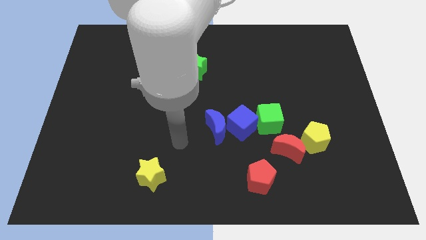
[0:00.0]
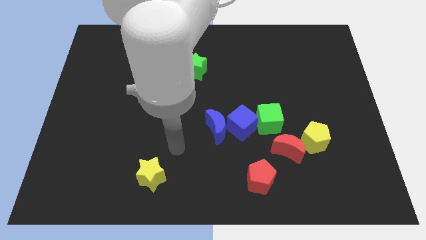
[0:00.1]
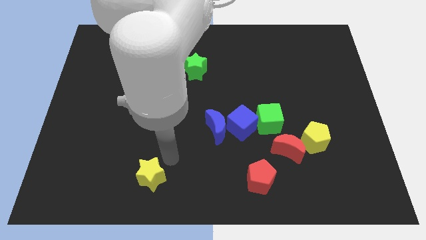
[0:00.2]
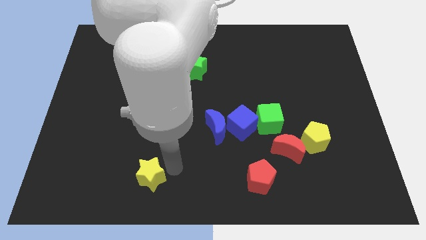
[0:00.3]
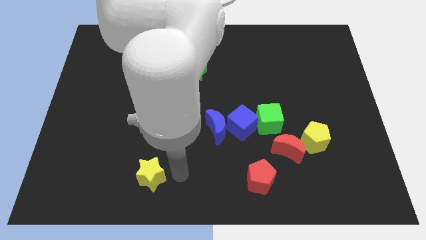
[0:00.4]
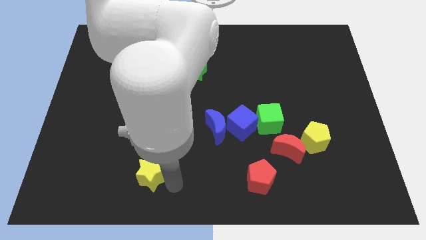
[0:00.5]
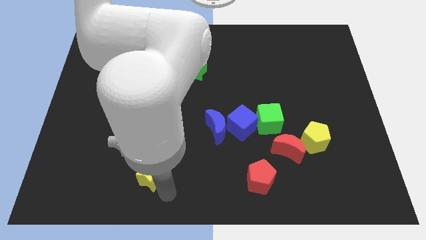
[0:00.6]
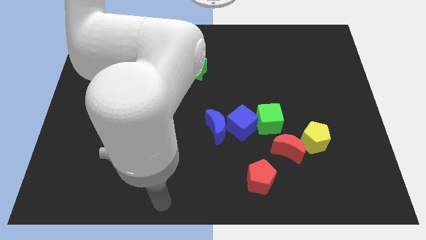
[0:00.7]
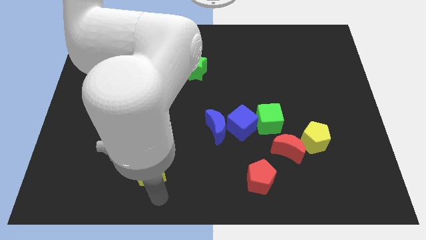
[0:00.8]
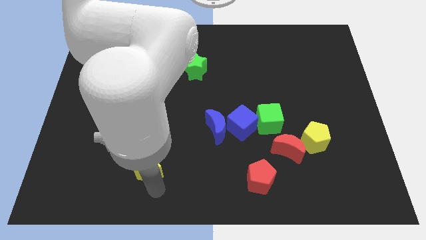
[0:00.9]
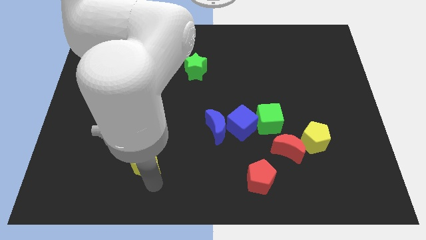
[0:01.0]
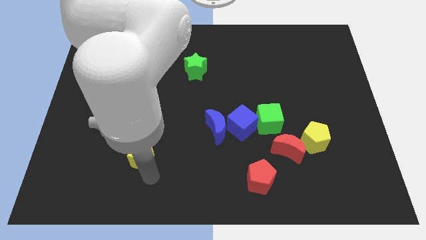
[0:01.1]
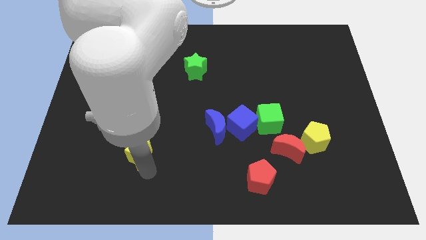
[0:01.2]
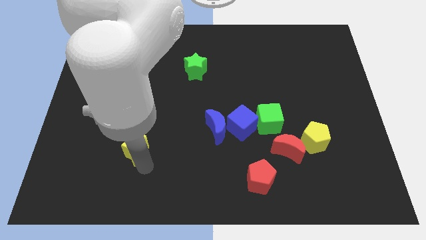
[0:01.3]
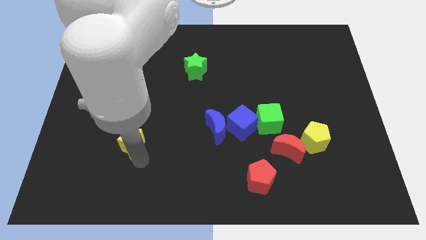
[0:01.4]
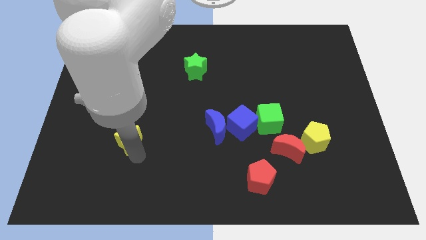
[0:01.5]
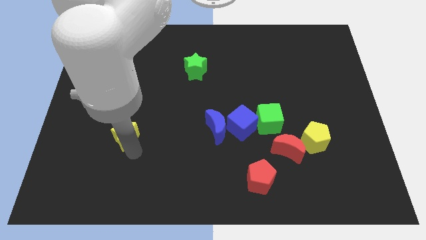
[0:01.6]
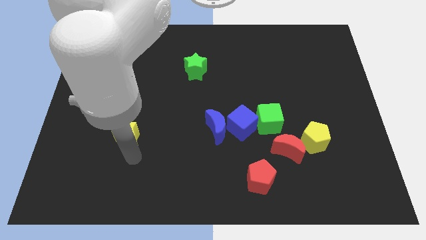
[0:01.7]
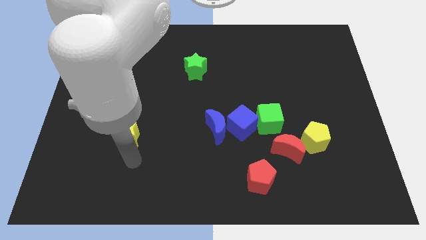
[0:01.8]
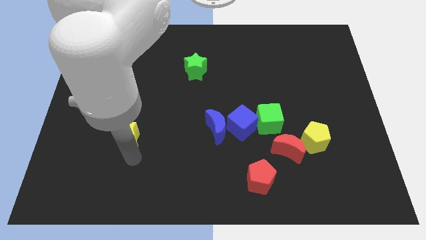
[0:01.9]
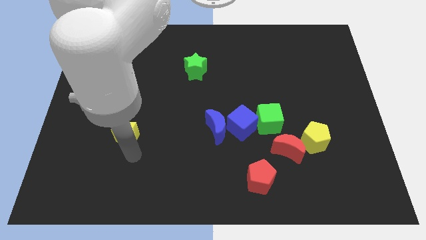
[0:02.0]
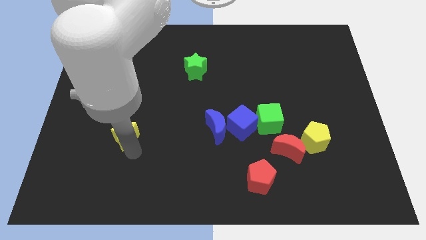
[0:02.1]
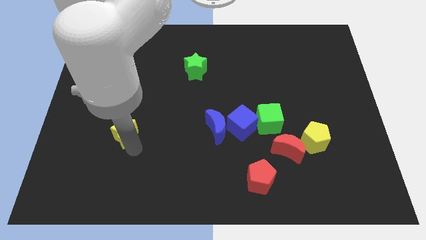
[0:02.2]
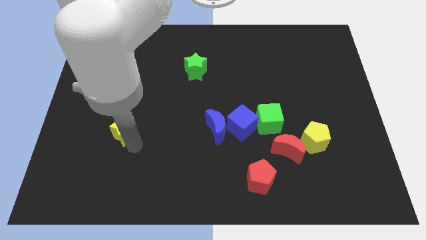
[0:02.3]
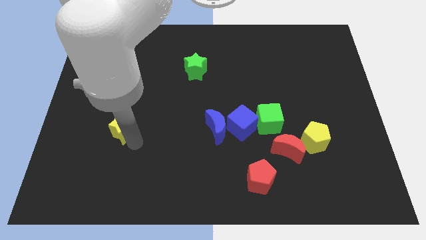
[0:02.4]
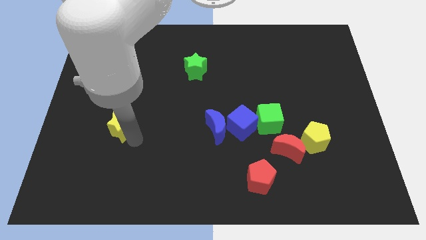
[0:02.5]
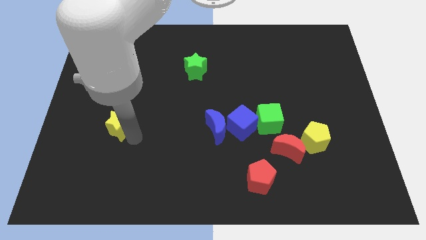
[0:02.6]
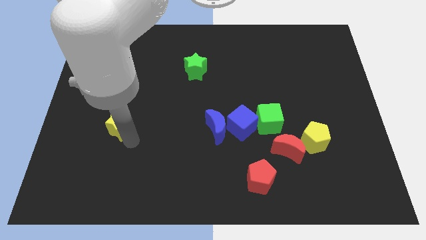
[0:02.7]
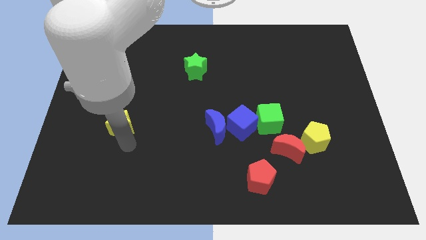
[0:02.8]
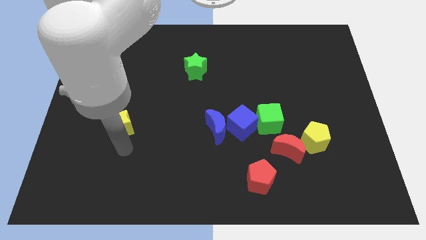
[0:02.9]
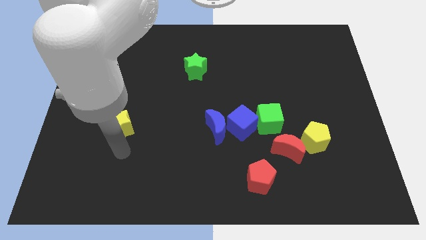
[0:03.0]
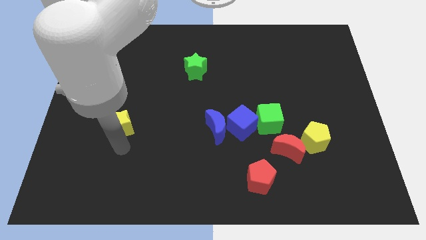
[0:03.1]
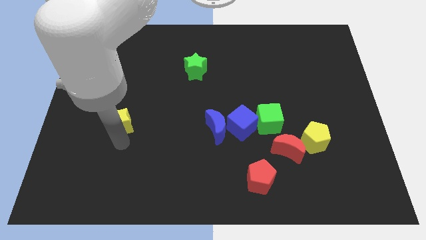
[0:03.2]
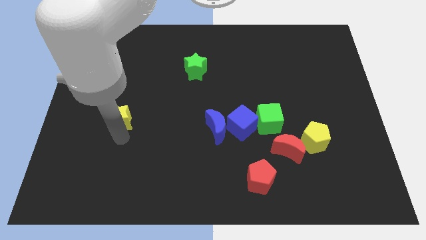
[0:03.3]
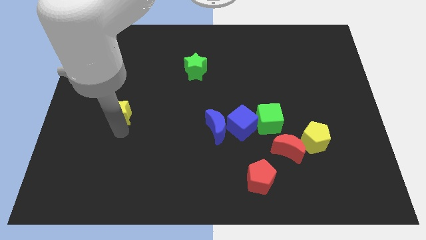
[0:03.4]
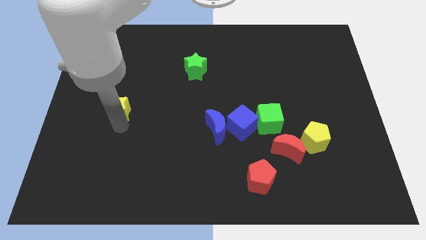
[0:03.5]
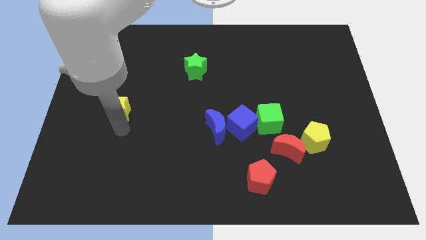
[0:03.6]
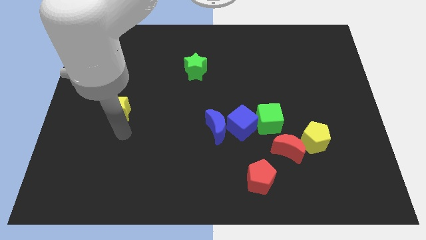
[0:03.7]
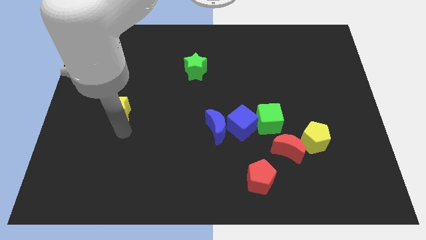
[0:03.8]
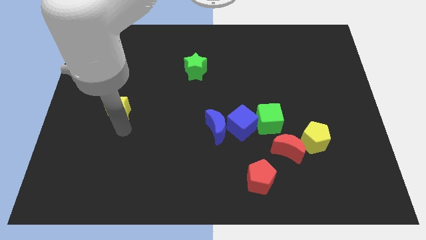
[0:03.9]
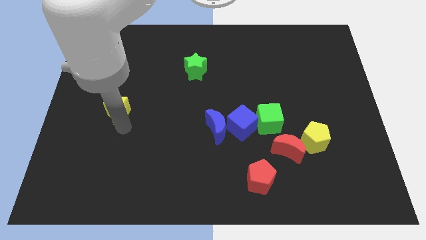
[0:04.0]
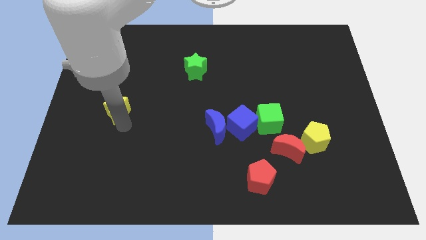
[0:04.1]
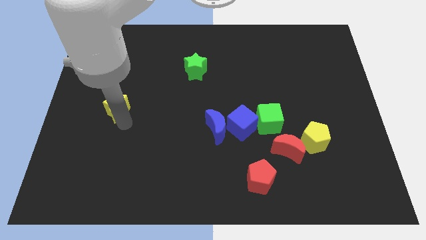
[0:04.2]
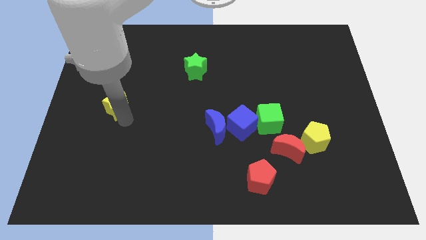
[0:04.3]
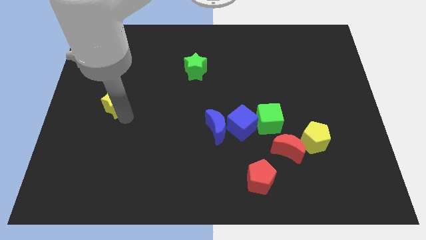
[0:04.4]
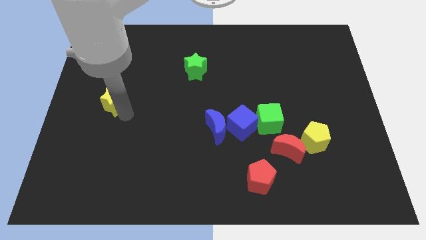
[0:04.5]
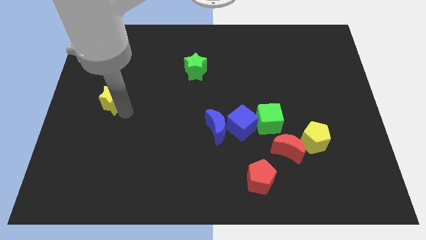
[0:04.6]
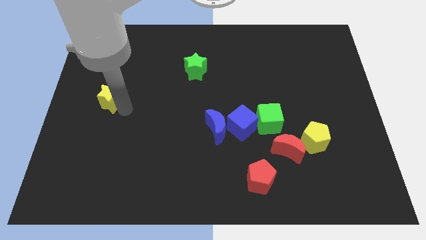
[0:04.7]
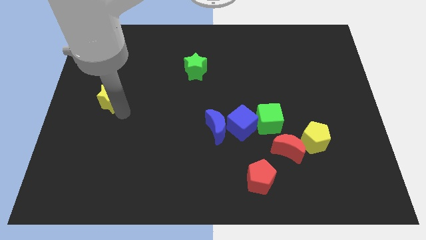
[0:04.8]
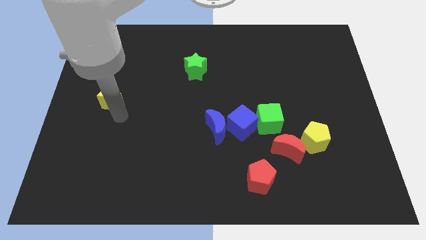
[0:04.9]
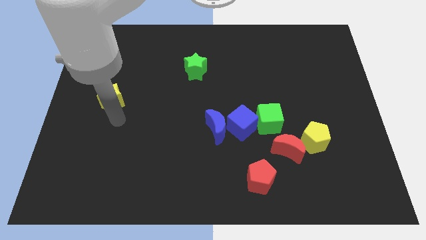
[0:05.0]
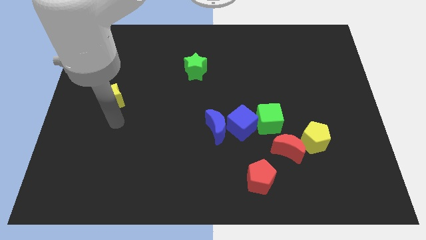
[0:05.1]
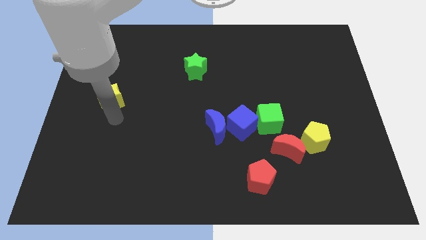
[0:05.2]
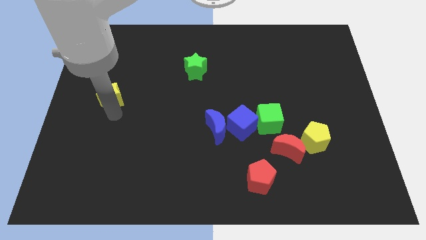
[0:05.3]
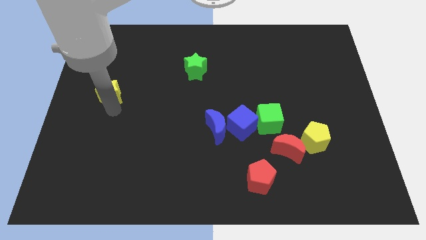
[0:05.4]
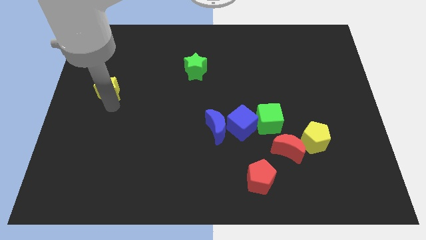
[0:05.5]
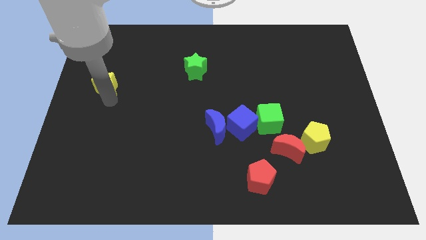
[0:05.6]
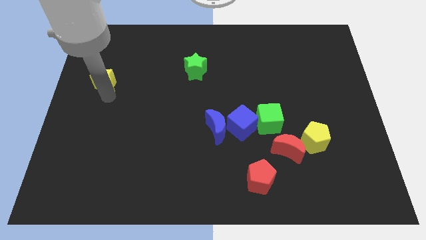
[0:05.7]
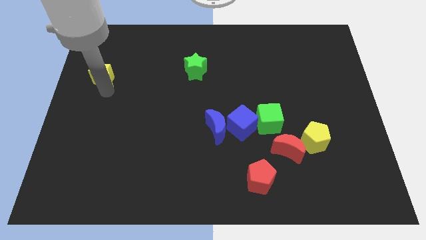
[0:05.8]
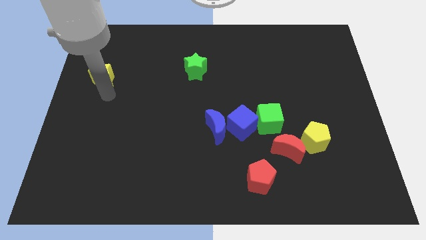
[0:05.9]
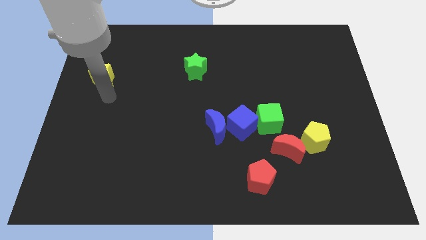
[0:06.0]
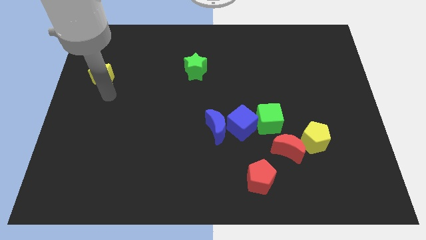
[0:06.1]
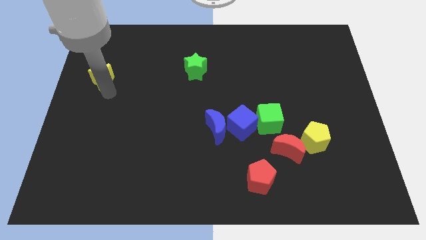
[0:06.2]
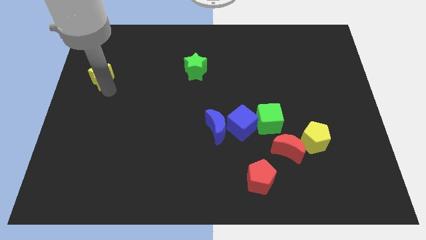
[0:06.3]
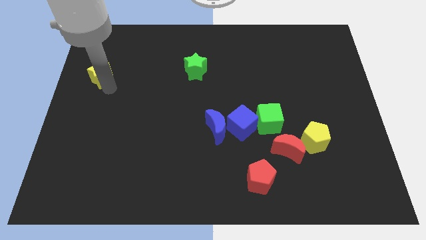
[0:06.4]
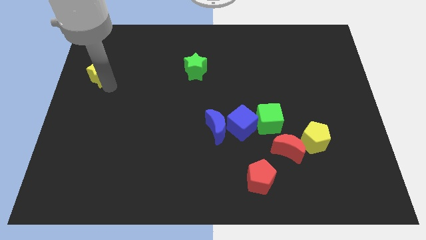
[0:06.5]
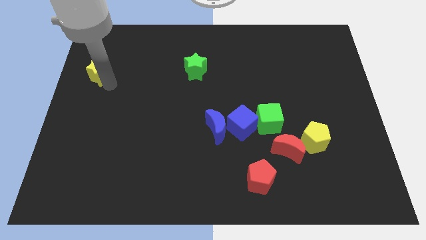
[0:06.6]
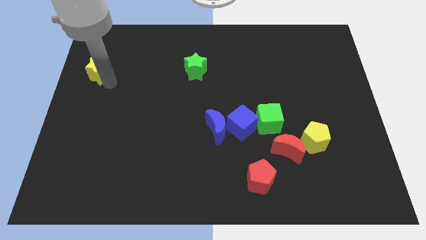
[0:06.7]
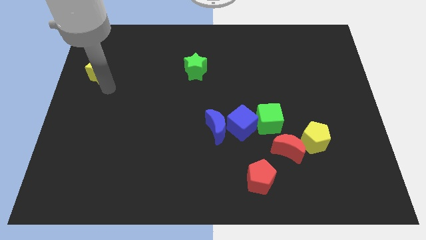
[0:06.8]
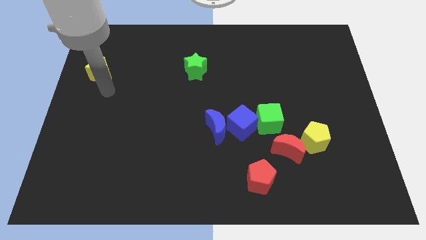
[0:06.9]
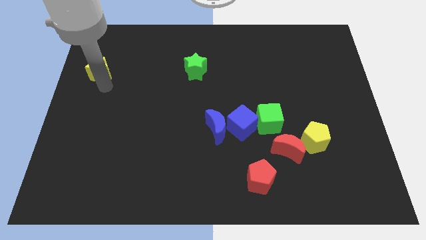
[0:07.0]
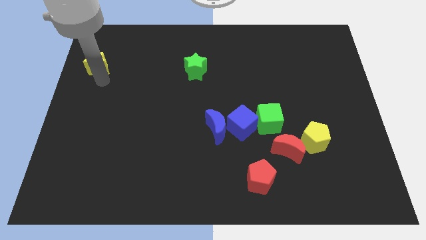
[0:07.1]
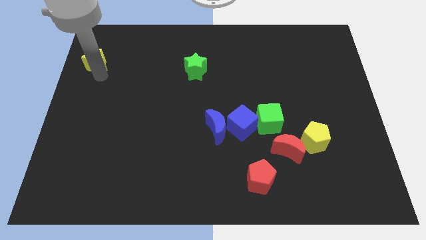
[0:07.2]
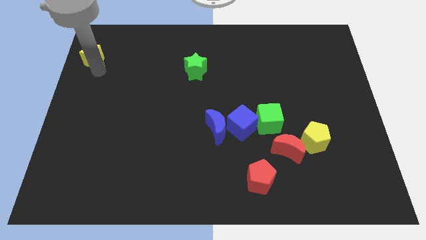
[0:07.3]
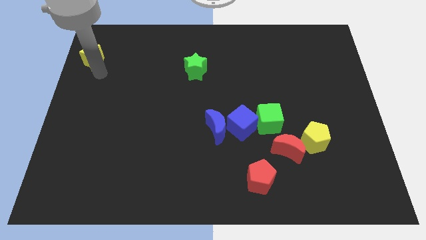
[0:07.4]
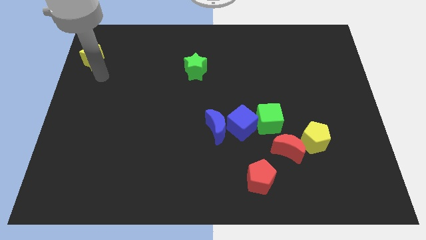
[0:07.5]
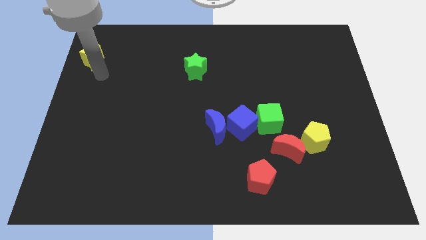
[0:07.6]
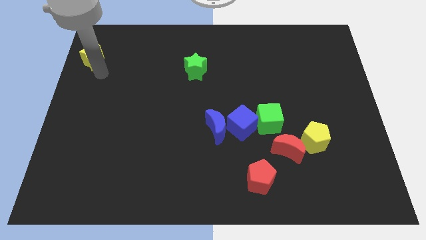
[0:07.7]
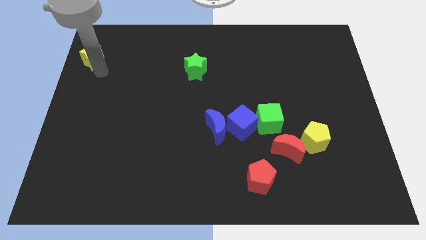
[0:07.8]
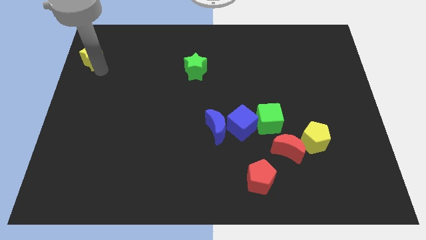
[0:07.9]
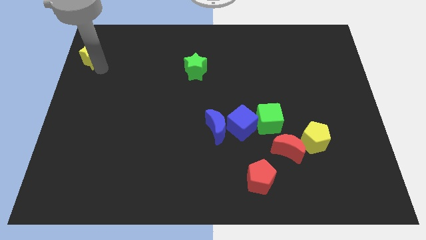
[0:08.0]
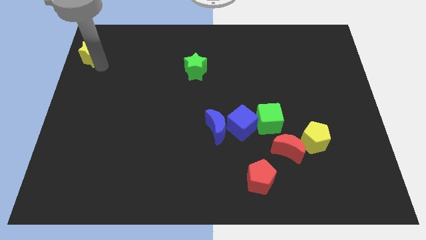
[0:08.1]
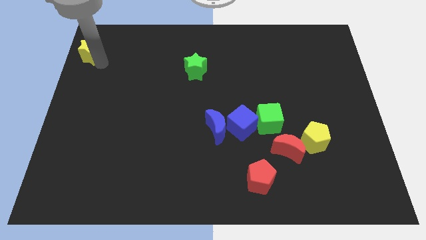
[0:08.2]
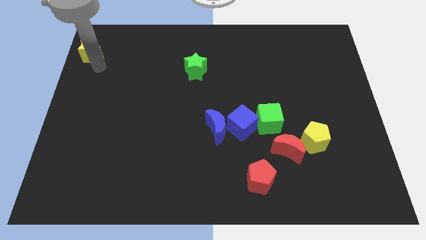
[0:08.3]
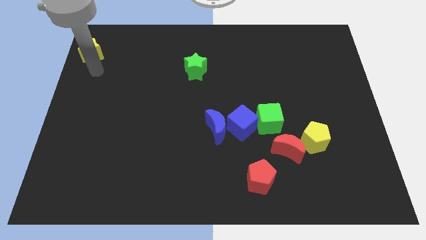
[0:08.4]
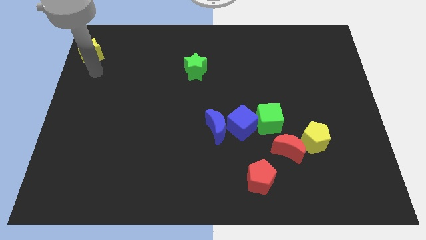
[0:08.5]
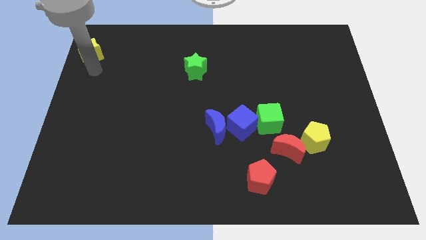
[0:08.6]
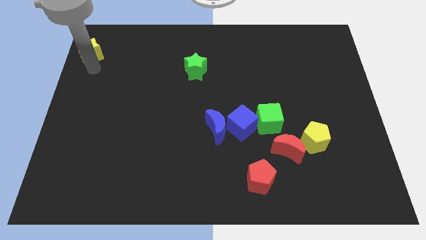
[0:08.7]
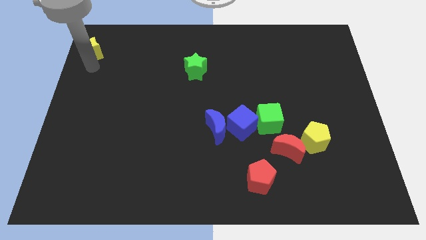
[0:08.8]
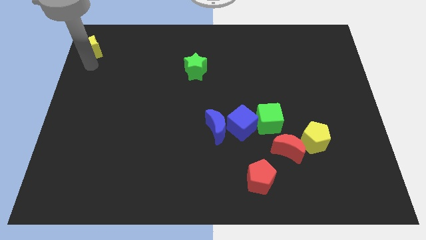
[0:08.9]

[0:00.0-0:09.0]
move the yellow star to the top left of the board
